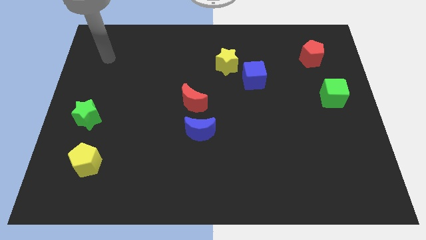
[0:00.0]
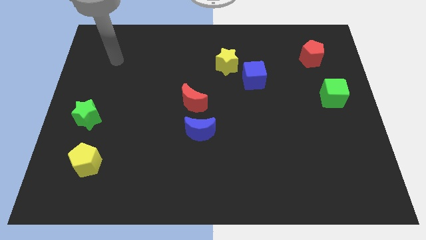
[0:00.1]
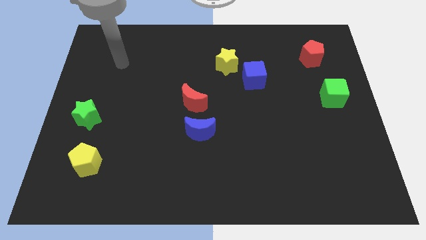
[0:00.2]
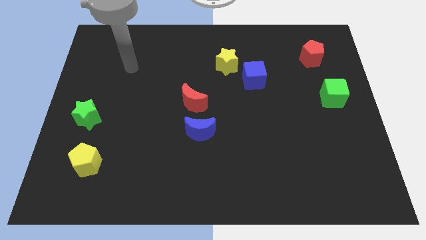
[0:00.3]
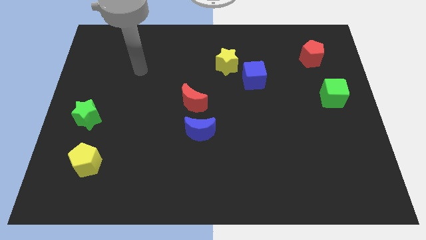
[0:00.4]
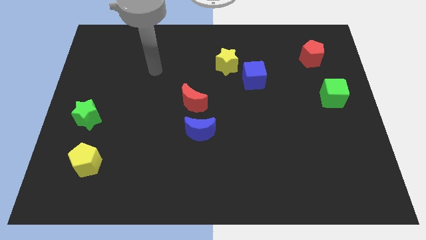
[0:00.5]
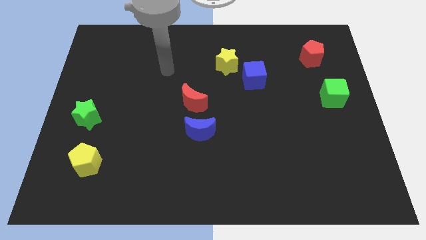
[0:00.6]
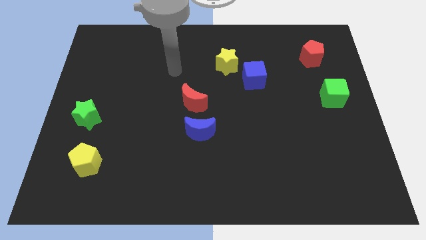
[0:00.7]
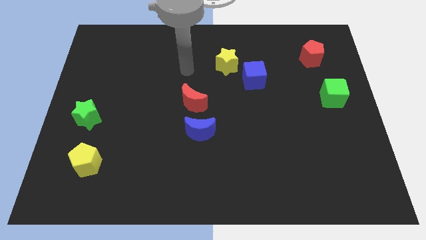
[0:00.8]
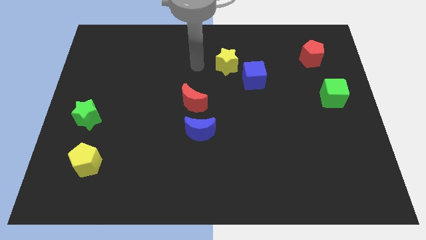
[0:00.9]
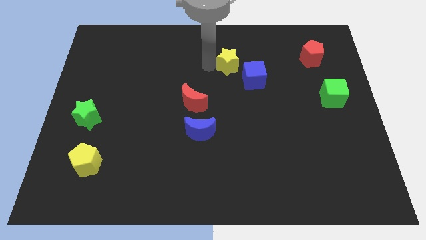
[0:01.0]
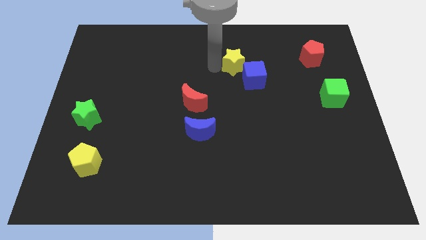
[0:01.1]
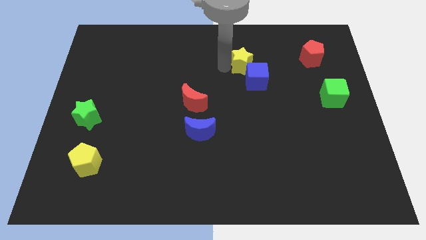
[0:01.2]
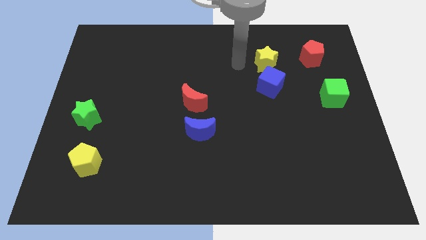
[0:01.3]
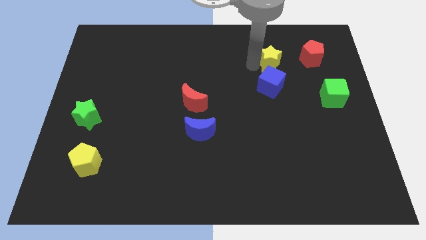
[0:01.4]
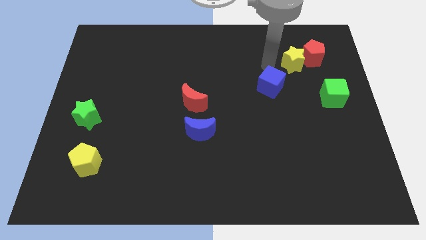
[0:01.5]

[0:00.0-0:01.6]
pull the blue cube apart from the yellow star

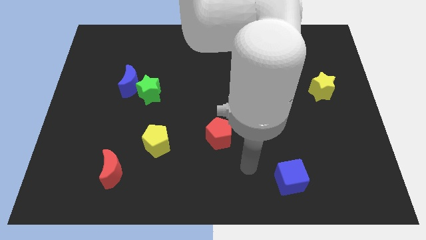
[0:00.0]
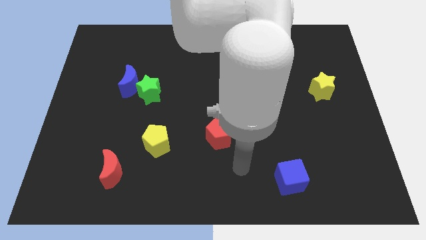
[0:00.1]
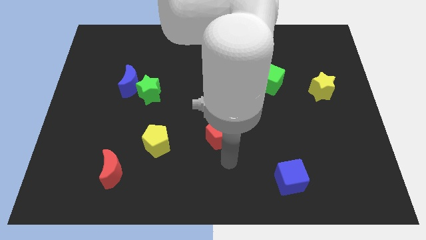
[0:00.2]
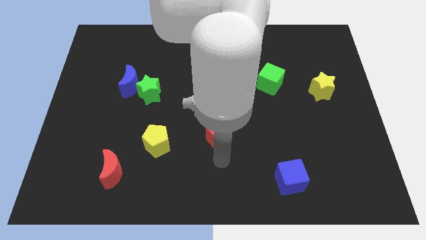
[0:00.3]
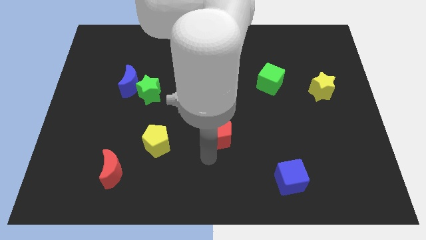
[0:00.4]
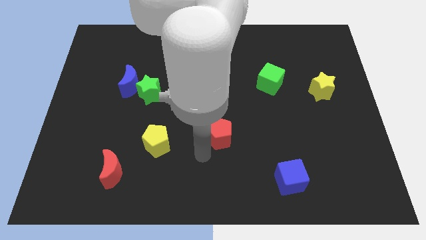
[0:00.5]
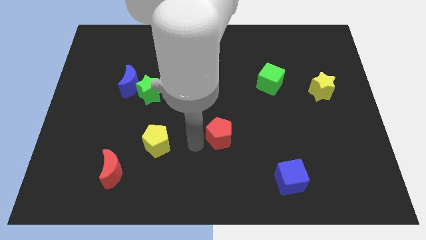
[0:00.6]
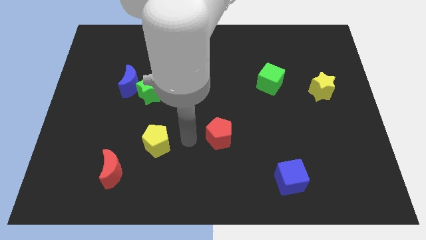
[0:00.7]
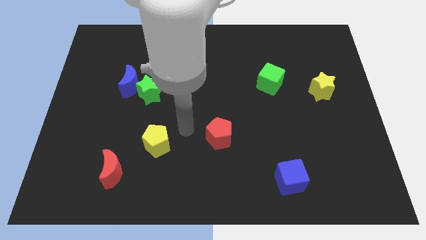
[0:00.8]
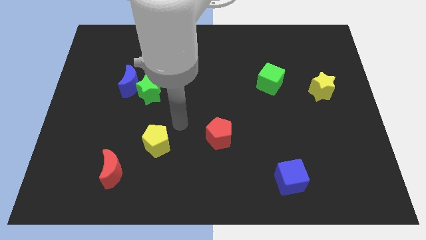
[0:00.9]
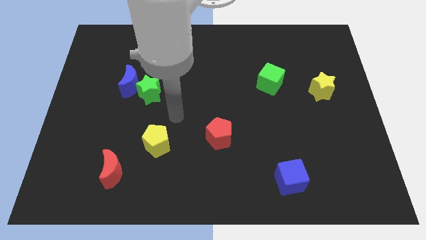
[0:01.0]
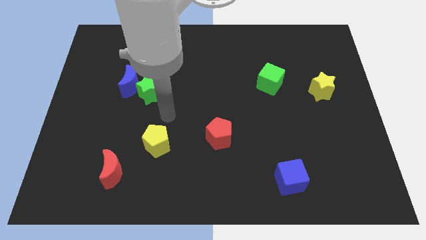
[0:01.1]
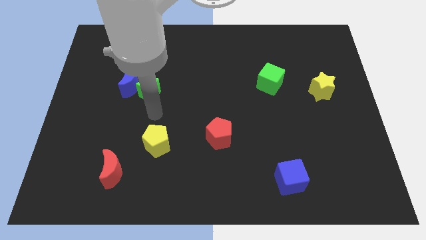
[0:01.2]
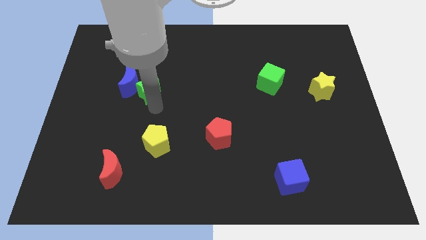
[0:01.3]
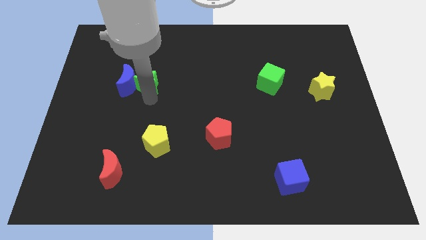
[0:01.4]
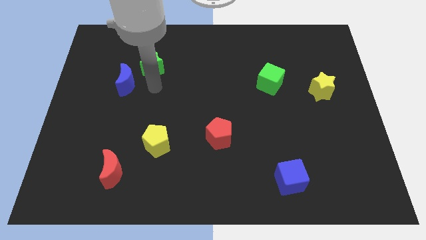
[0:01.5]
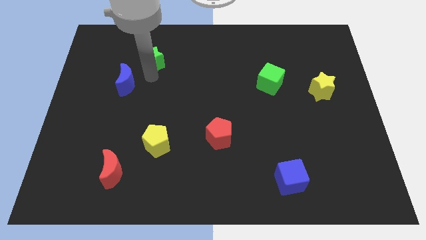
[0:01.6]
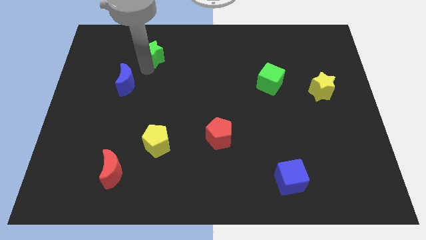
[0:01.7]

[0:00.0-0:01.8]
pull the blue moon apart from the green star

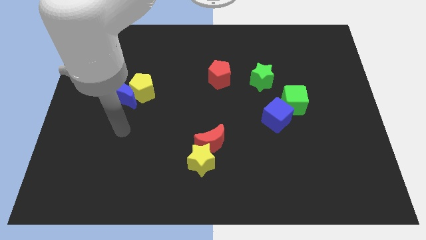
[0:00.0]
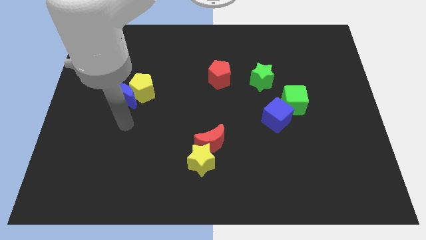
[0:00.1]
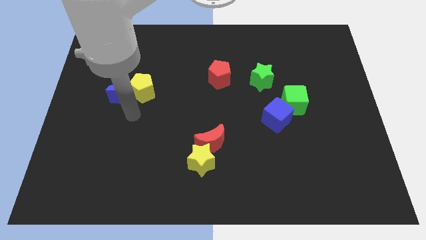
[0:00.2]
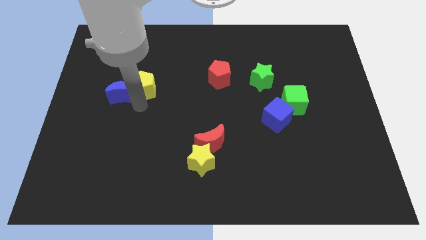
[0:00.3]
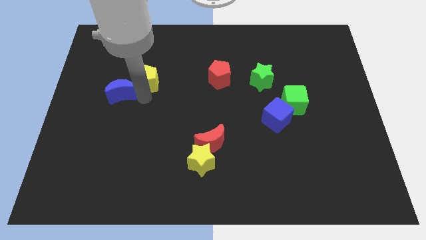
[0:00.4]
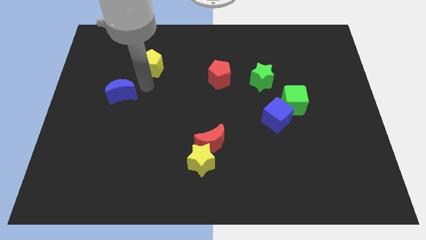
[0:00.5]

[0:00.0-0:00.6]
move the blue moon away from the yellow pentagon

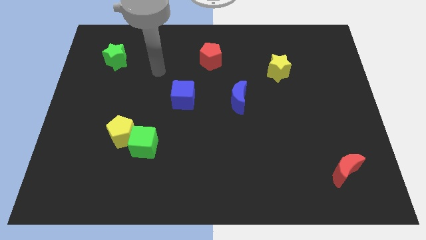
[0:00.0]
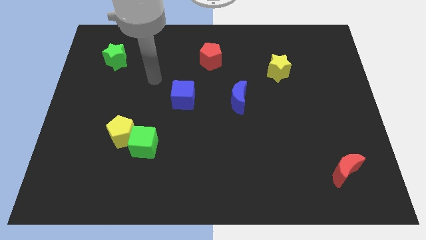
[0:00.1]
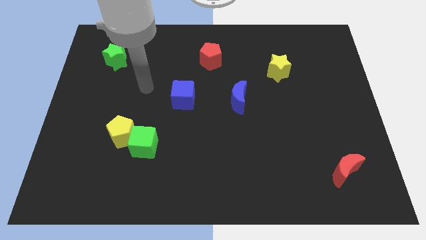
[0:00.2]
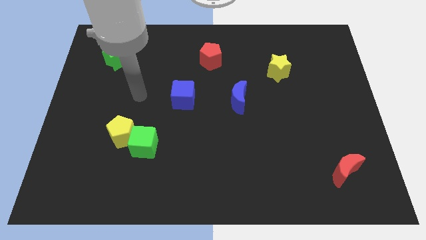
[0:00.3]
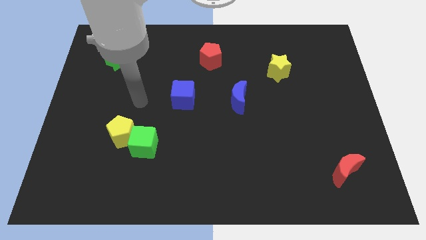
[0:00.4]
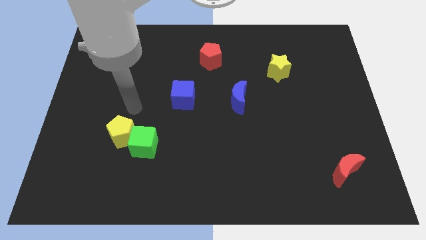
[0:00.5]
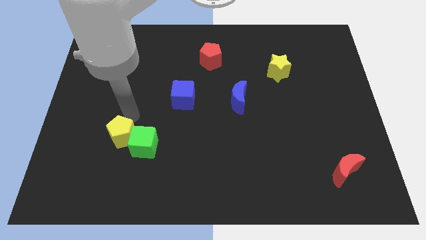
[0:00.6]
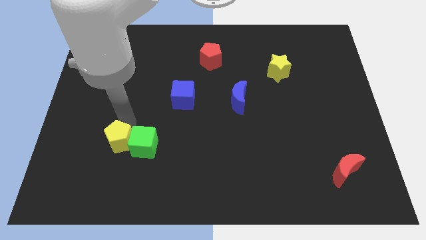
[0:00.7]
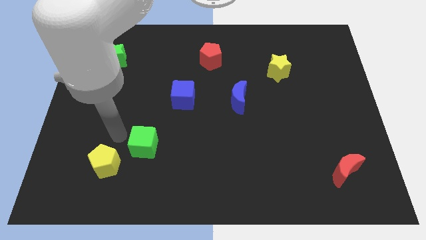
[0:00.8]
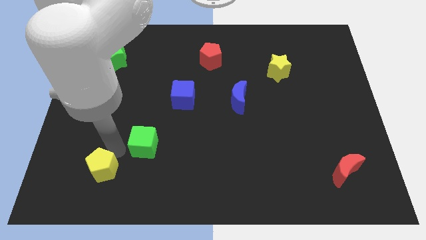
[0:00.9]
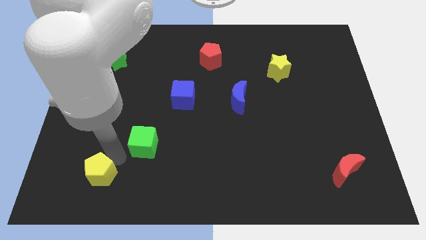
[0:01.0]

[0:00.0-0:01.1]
separate the green cube from the yellow pentagon

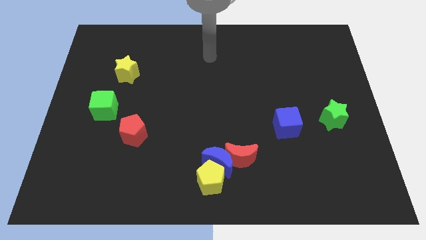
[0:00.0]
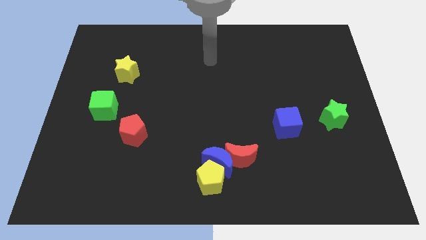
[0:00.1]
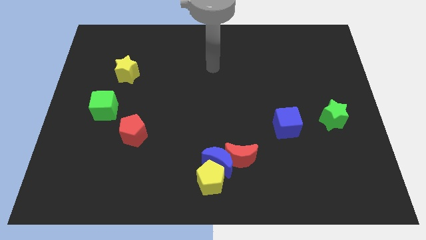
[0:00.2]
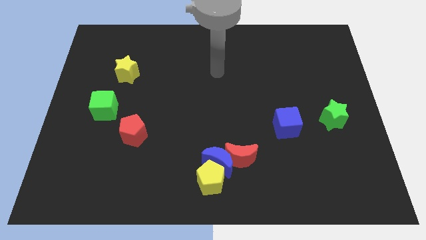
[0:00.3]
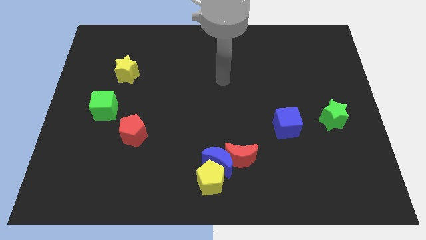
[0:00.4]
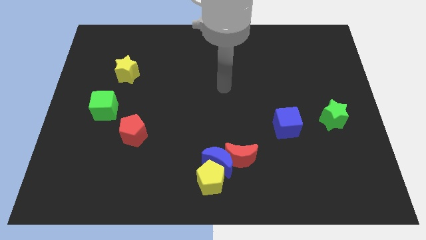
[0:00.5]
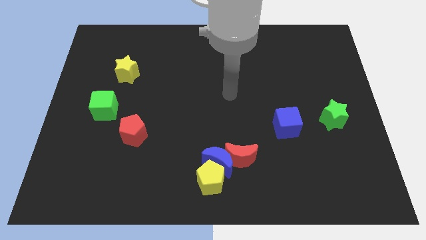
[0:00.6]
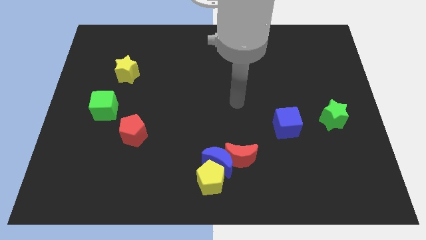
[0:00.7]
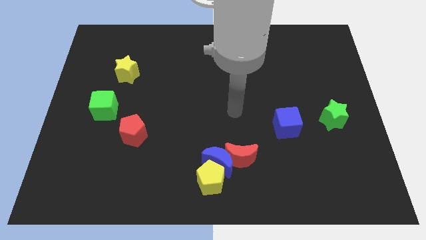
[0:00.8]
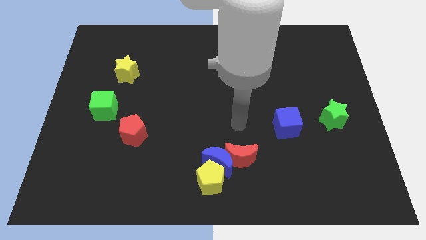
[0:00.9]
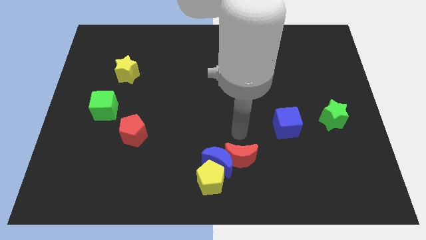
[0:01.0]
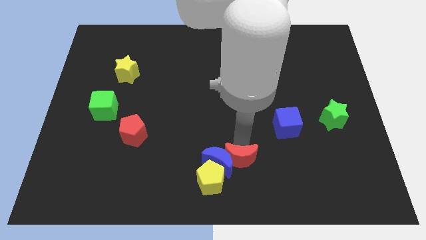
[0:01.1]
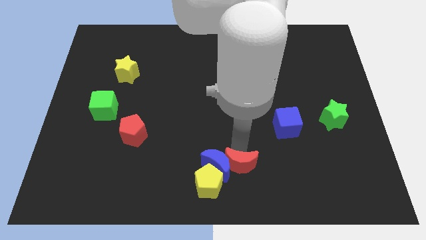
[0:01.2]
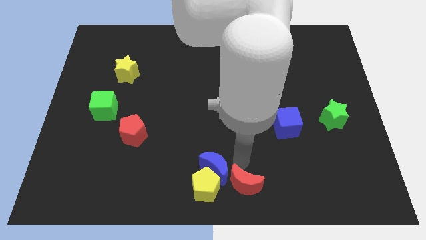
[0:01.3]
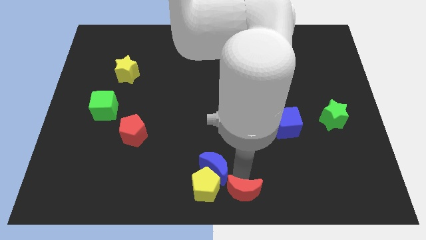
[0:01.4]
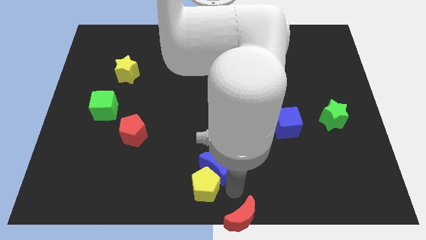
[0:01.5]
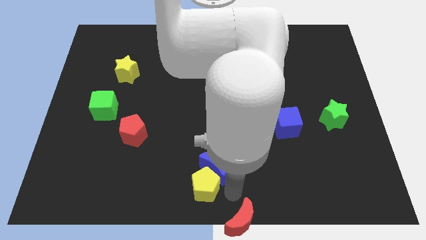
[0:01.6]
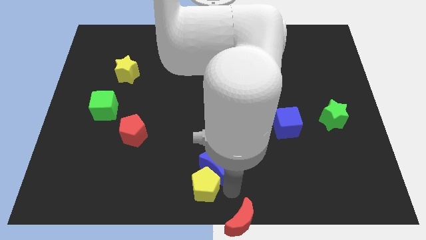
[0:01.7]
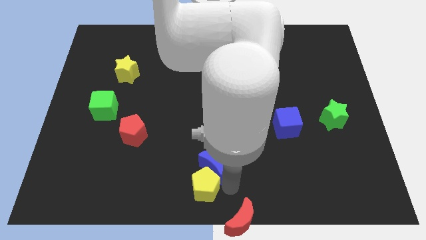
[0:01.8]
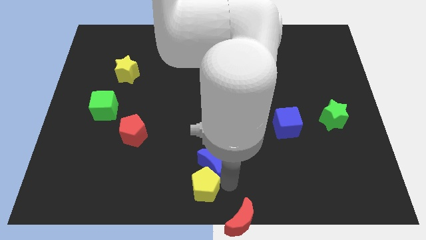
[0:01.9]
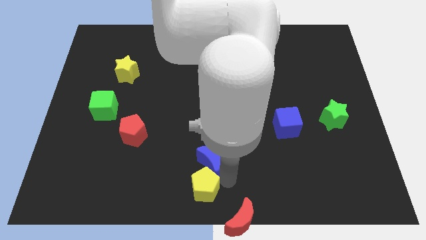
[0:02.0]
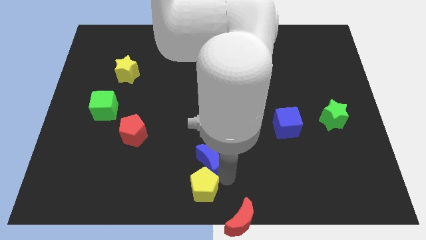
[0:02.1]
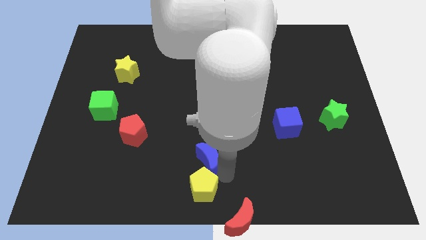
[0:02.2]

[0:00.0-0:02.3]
separate the blue moon from the yellow pentagon and red moon

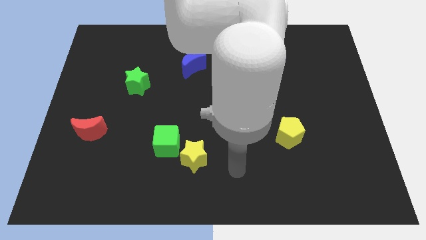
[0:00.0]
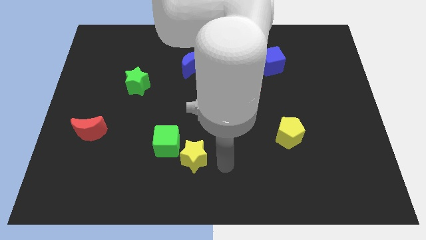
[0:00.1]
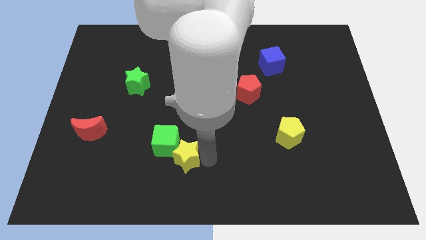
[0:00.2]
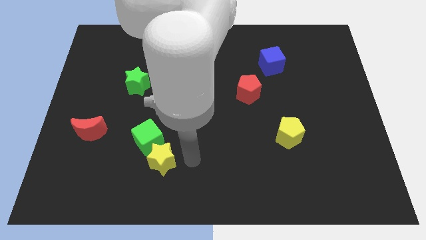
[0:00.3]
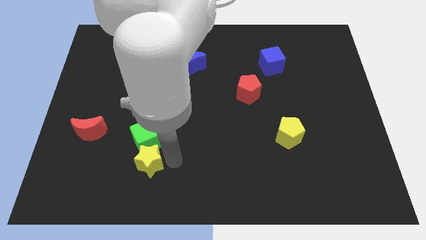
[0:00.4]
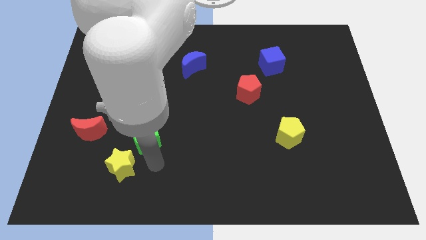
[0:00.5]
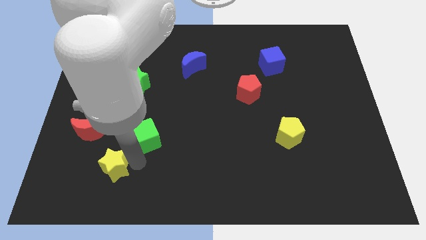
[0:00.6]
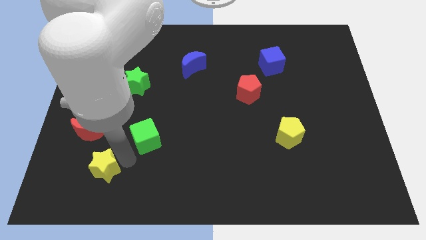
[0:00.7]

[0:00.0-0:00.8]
pull the green cube apart from the yellow star

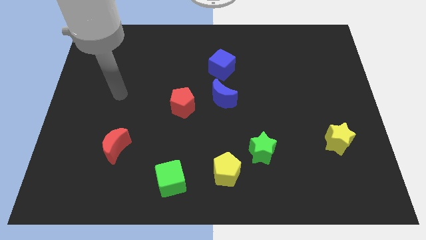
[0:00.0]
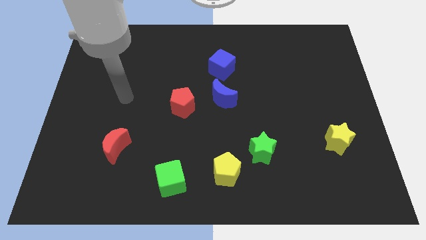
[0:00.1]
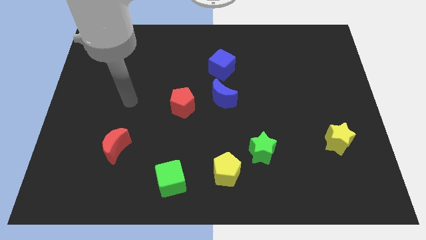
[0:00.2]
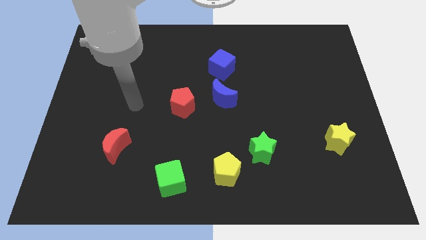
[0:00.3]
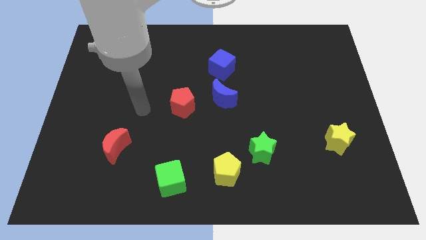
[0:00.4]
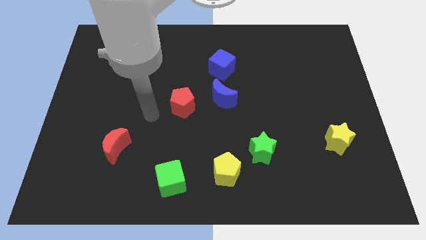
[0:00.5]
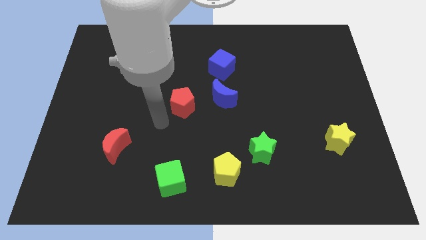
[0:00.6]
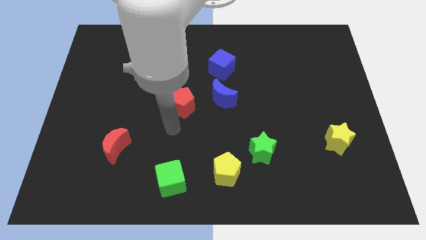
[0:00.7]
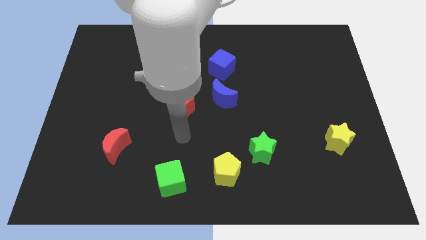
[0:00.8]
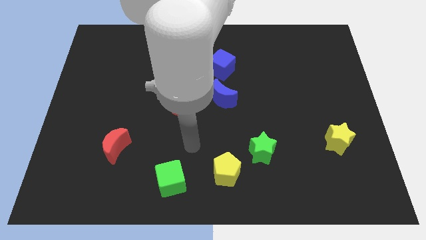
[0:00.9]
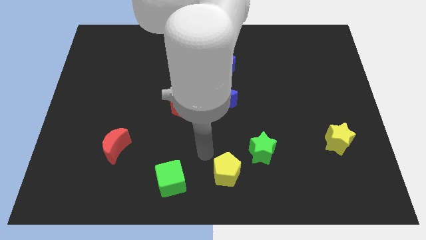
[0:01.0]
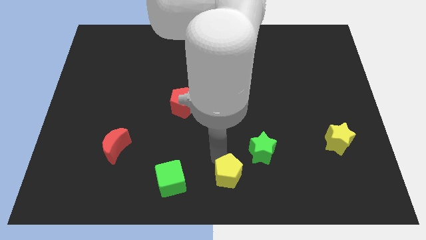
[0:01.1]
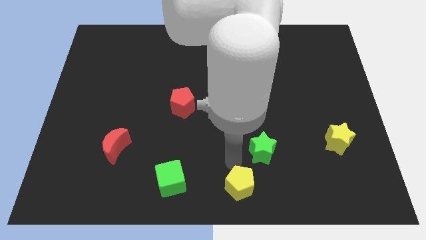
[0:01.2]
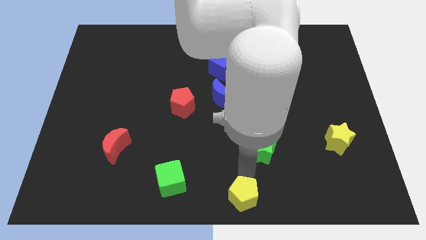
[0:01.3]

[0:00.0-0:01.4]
move the green star away from the yellow pentagon
